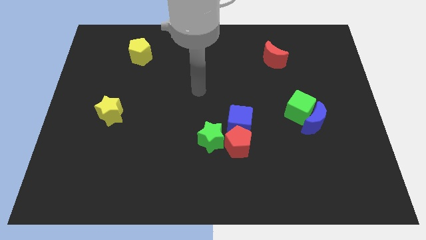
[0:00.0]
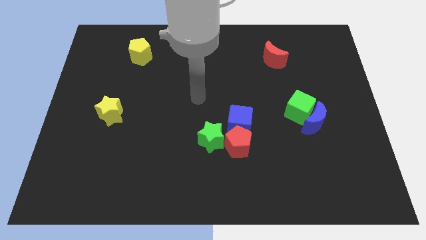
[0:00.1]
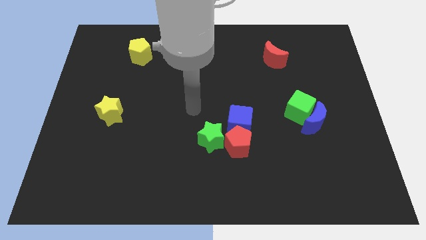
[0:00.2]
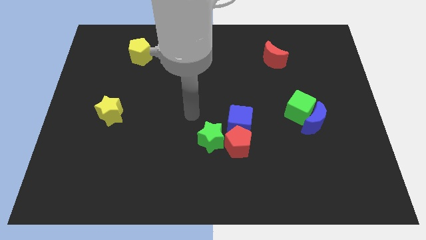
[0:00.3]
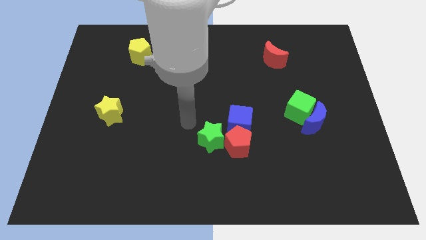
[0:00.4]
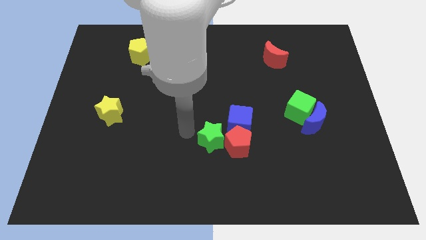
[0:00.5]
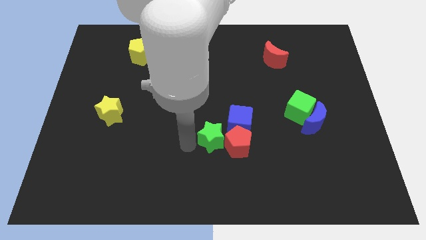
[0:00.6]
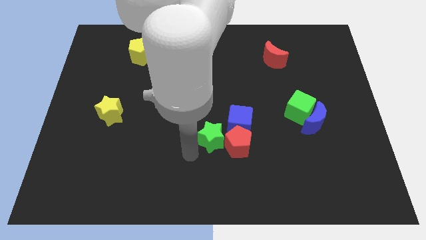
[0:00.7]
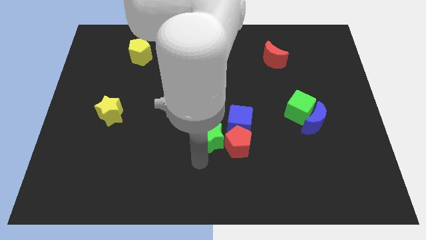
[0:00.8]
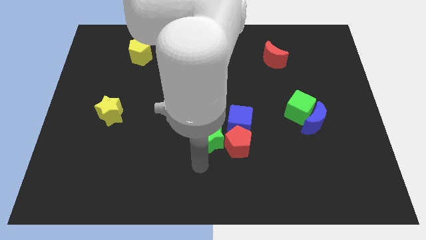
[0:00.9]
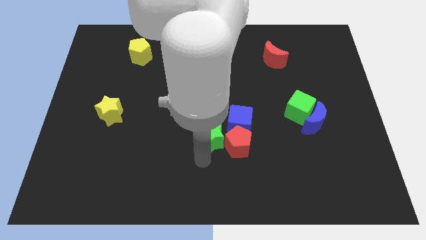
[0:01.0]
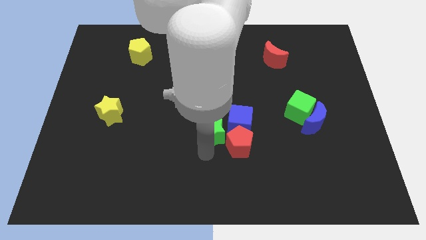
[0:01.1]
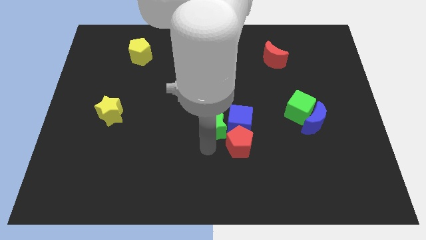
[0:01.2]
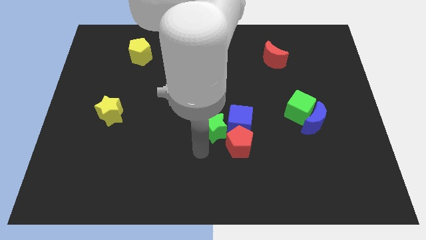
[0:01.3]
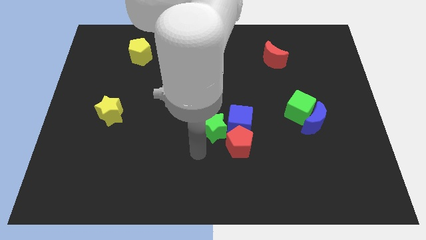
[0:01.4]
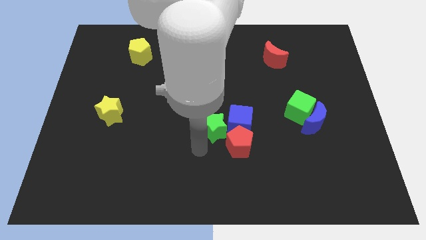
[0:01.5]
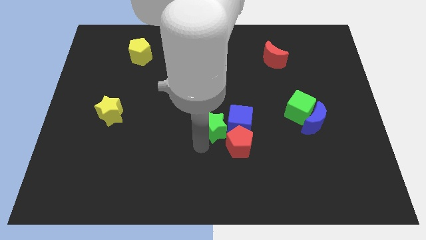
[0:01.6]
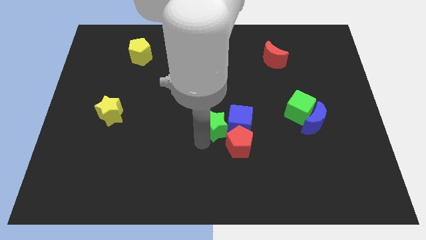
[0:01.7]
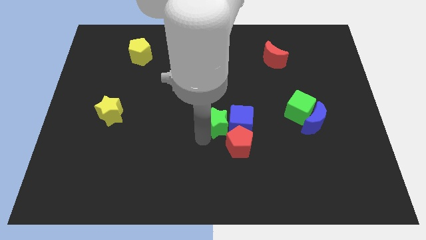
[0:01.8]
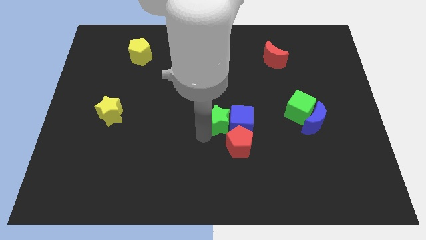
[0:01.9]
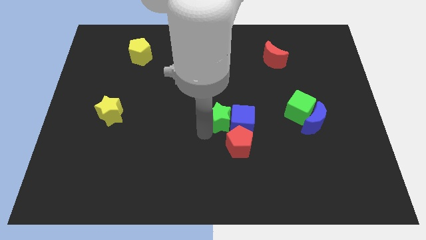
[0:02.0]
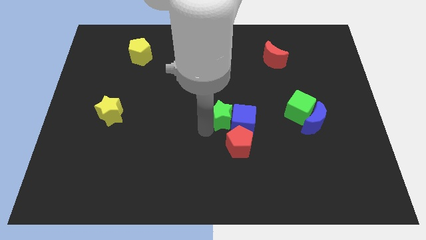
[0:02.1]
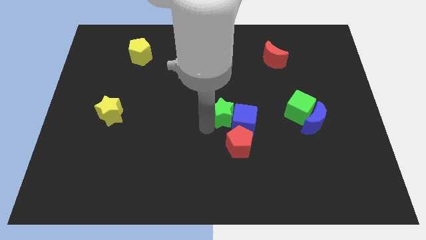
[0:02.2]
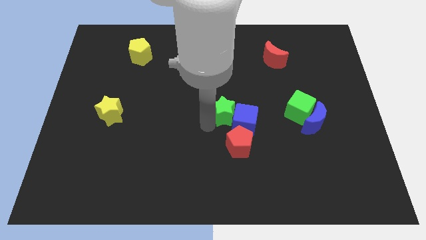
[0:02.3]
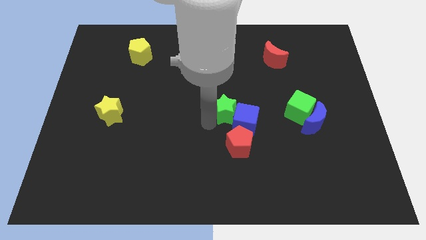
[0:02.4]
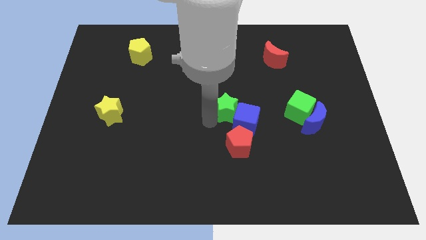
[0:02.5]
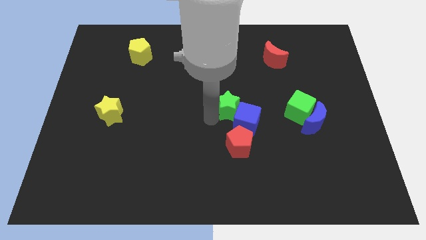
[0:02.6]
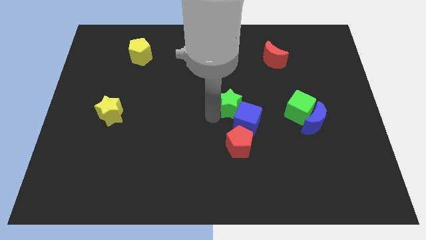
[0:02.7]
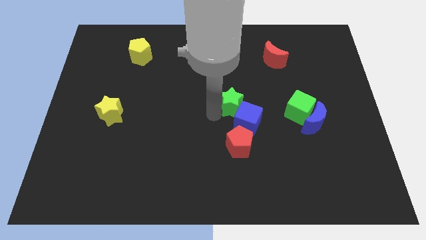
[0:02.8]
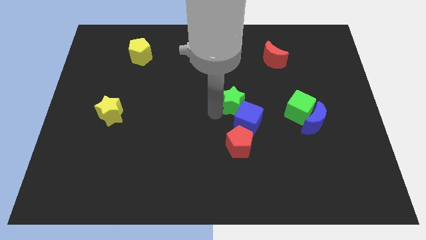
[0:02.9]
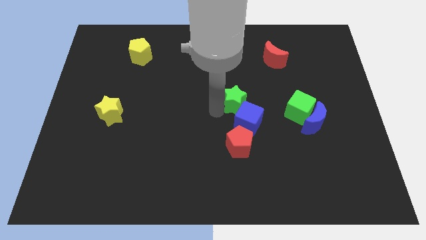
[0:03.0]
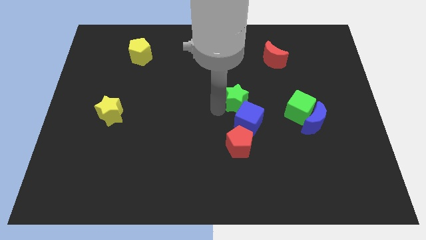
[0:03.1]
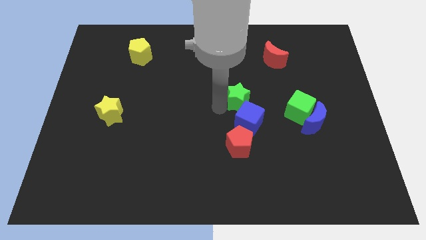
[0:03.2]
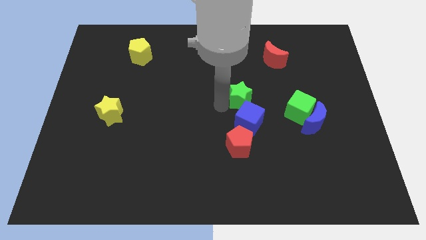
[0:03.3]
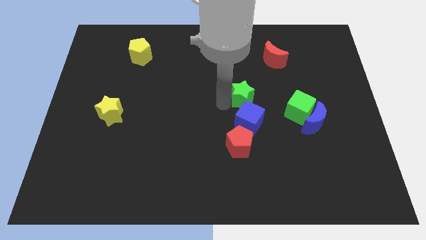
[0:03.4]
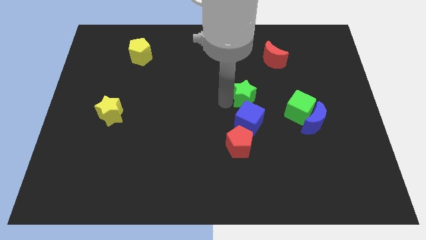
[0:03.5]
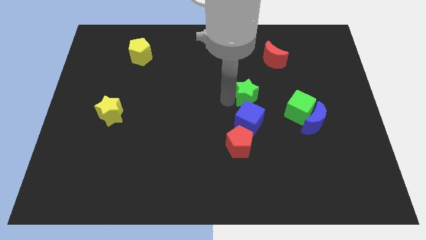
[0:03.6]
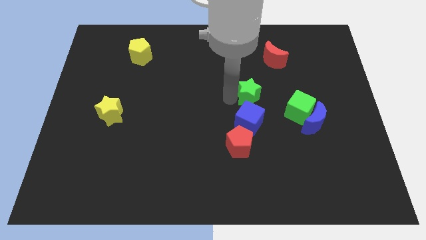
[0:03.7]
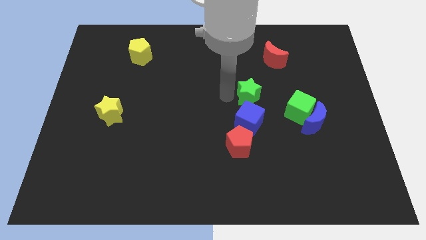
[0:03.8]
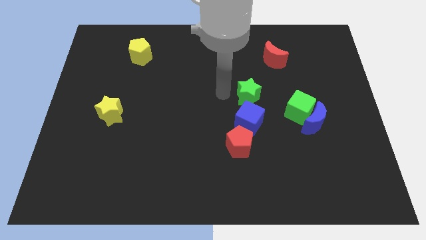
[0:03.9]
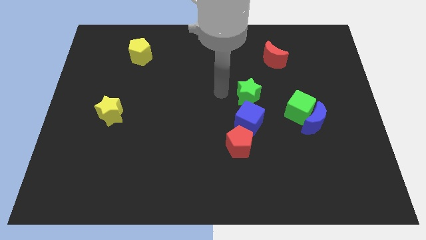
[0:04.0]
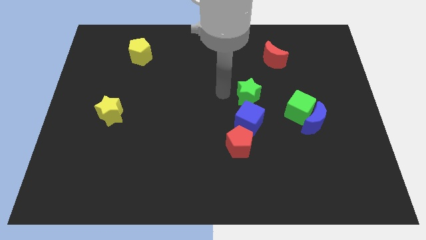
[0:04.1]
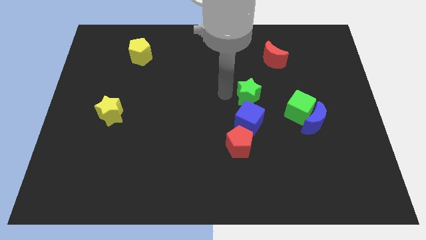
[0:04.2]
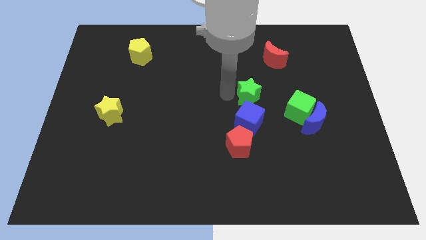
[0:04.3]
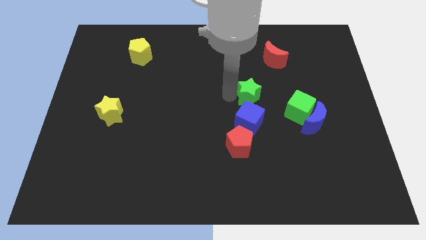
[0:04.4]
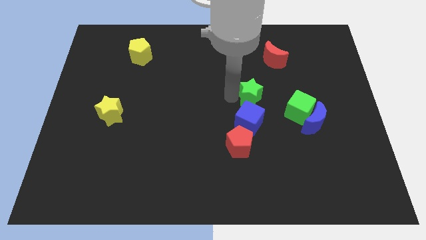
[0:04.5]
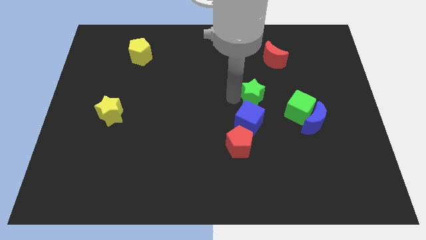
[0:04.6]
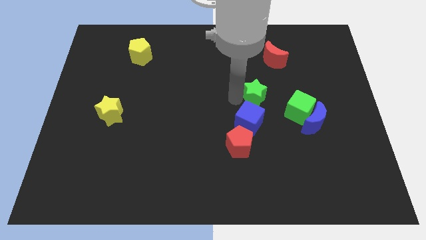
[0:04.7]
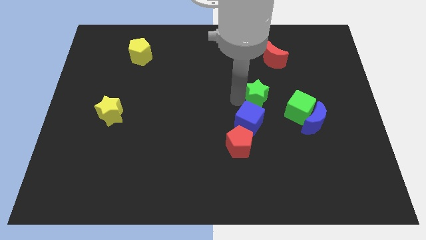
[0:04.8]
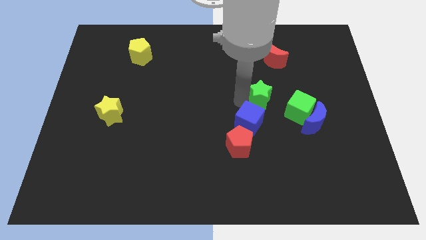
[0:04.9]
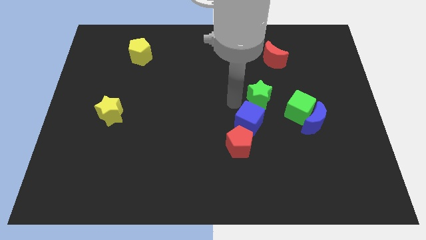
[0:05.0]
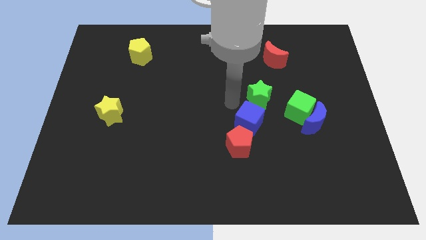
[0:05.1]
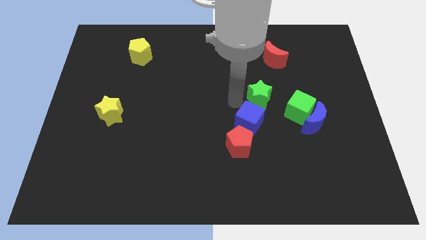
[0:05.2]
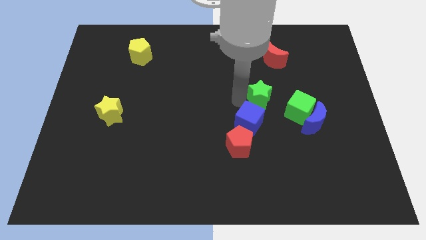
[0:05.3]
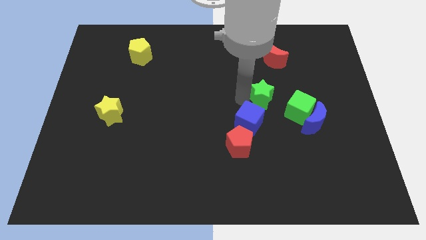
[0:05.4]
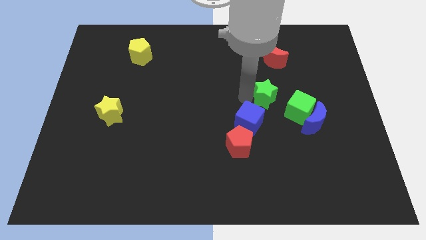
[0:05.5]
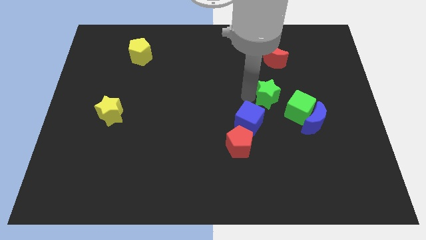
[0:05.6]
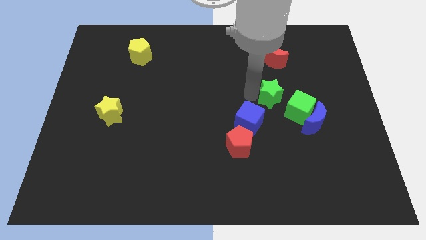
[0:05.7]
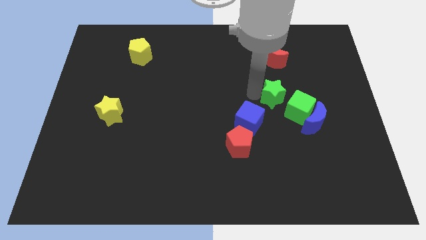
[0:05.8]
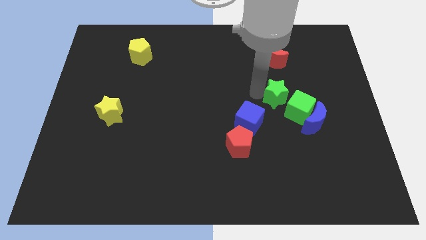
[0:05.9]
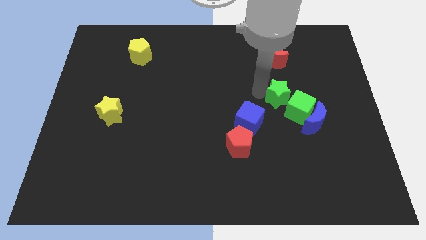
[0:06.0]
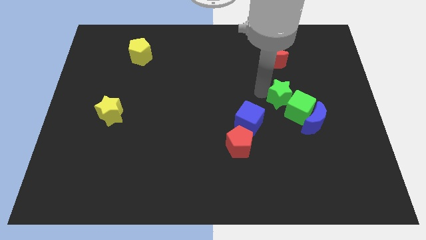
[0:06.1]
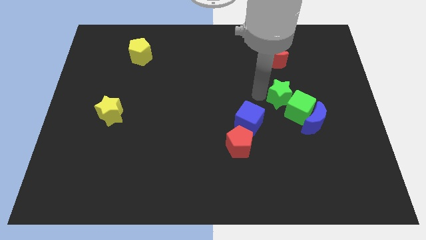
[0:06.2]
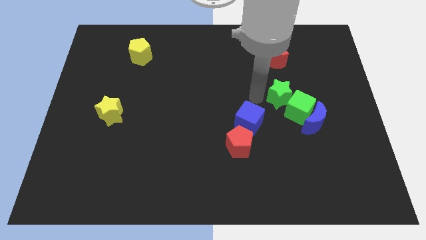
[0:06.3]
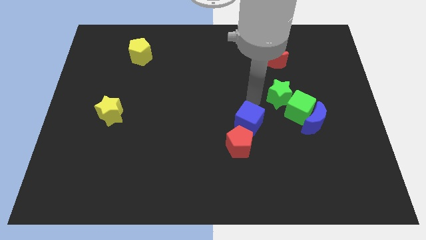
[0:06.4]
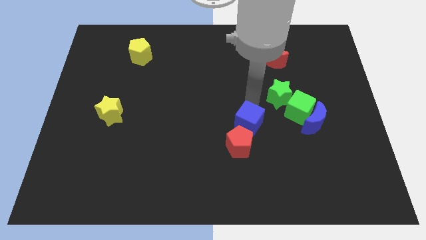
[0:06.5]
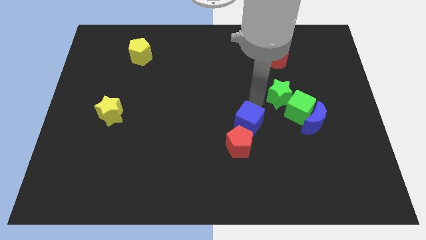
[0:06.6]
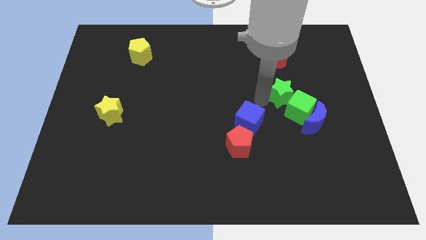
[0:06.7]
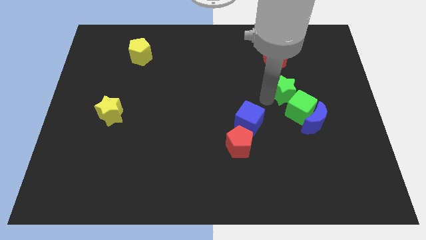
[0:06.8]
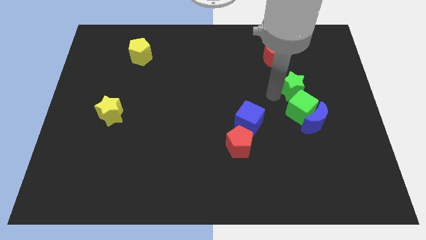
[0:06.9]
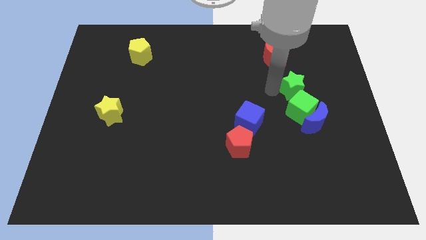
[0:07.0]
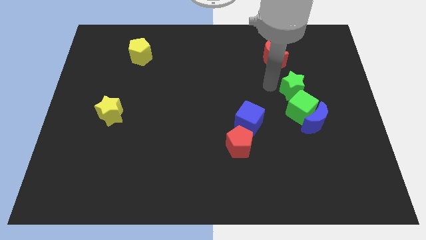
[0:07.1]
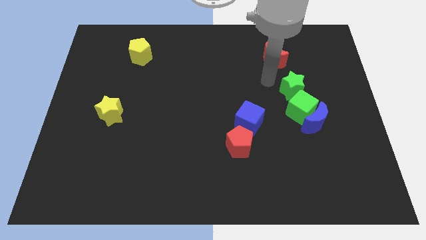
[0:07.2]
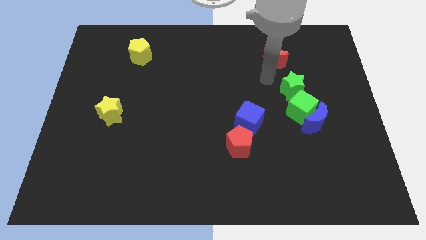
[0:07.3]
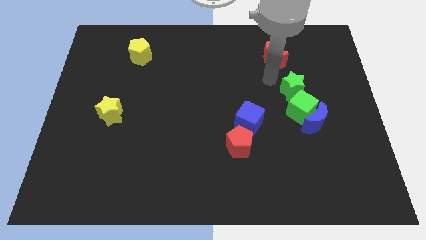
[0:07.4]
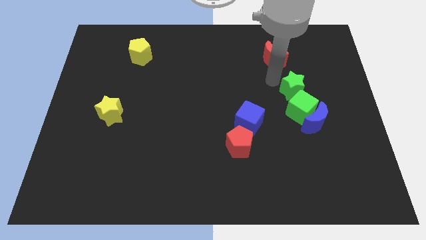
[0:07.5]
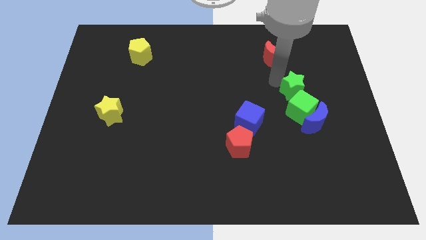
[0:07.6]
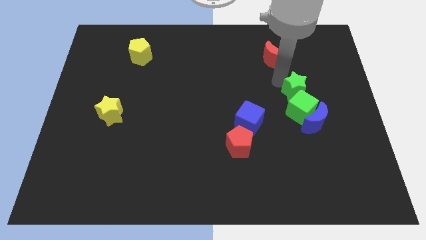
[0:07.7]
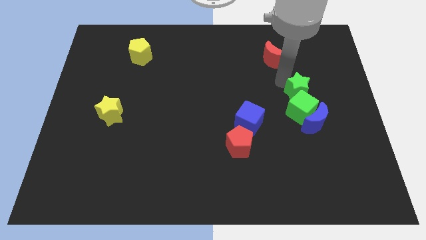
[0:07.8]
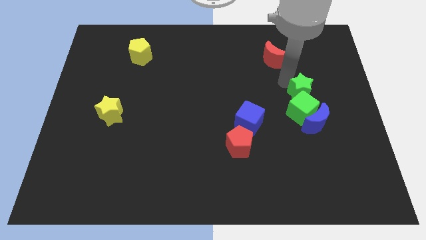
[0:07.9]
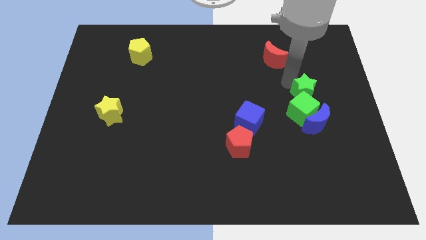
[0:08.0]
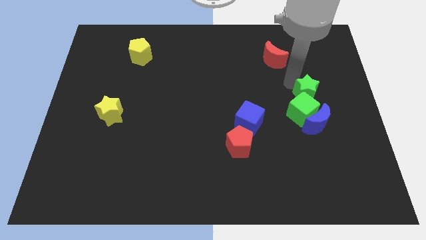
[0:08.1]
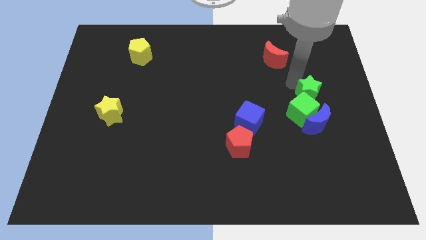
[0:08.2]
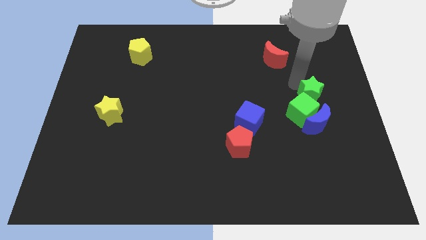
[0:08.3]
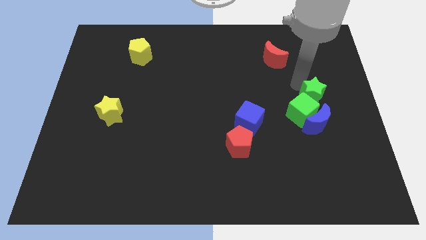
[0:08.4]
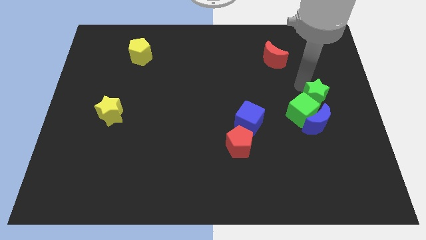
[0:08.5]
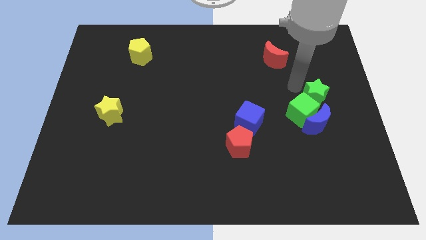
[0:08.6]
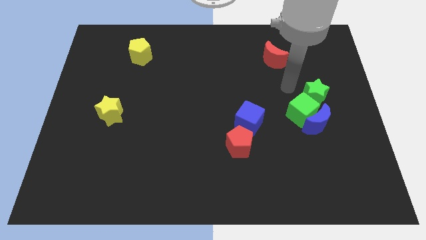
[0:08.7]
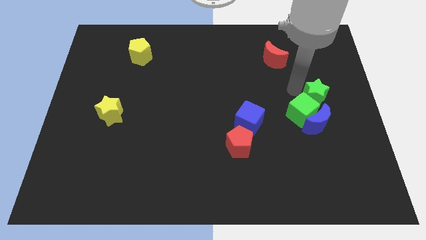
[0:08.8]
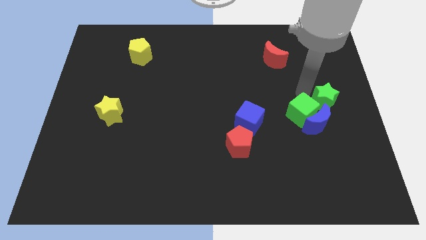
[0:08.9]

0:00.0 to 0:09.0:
slide the green star to the center right
